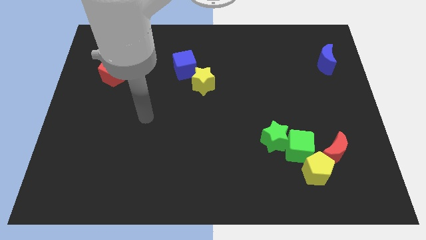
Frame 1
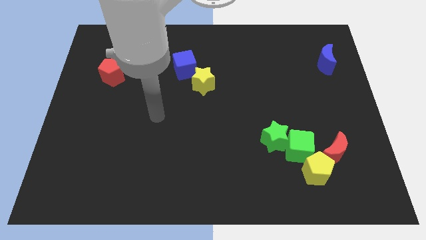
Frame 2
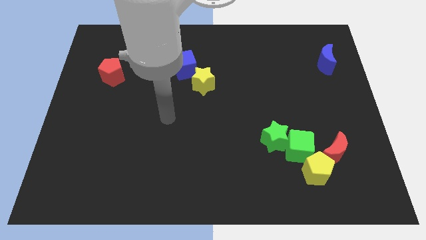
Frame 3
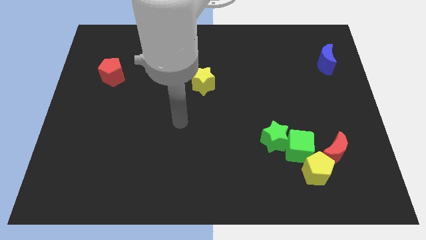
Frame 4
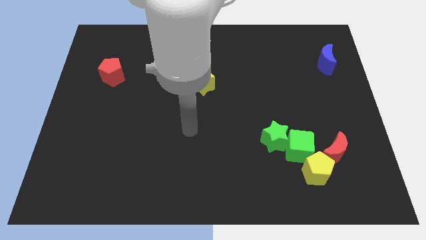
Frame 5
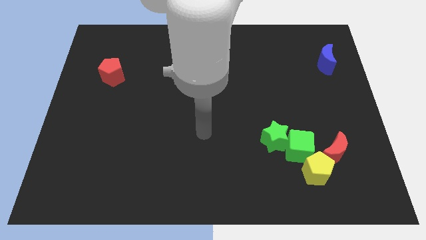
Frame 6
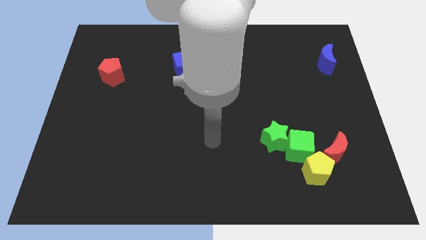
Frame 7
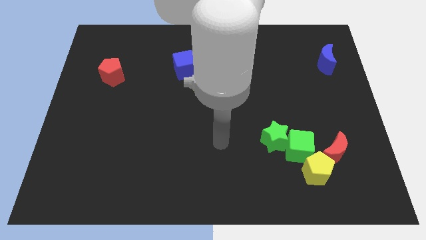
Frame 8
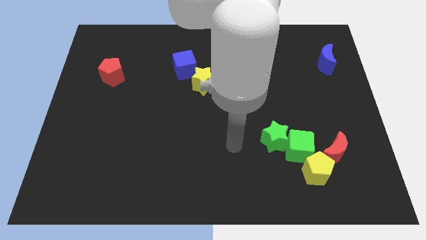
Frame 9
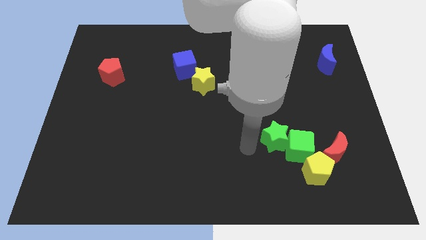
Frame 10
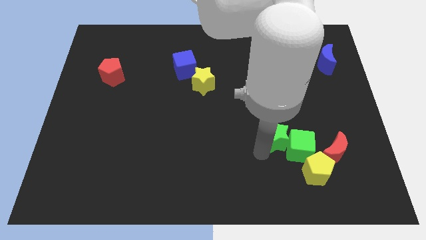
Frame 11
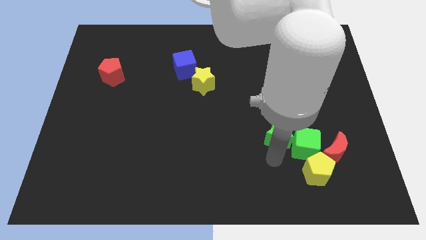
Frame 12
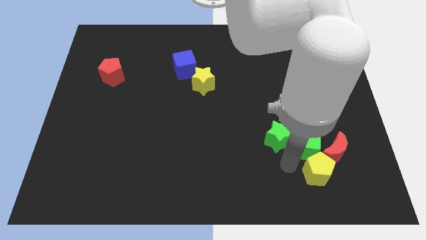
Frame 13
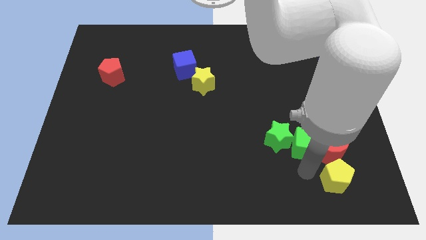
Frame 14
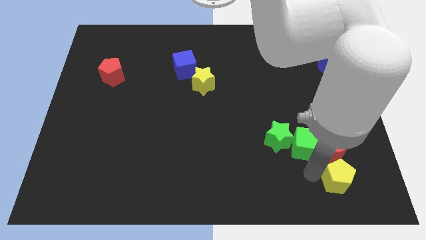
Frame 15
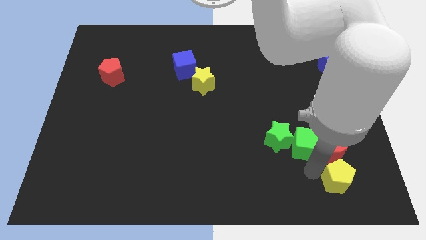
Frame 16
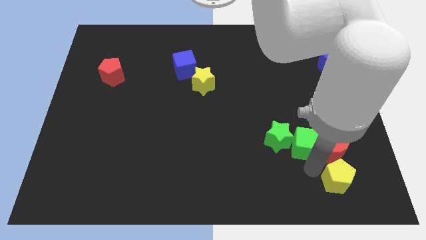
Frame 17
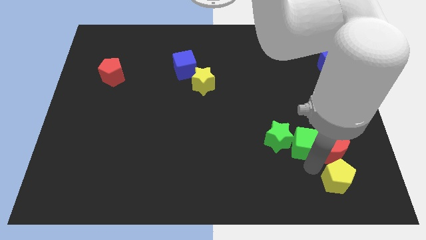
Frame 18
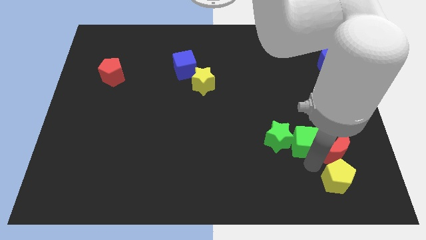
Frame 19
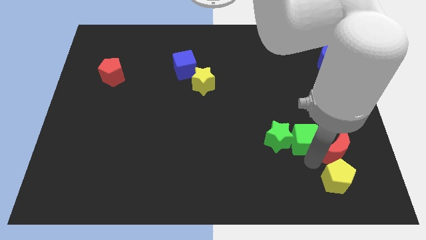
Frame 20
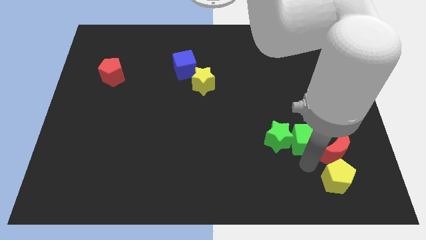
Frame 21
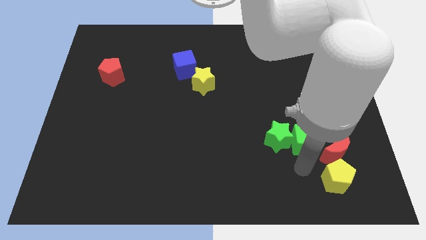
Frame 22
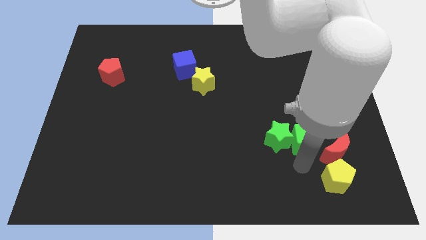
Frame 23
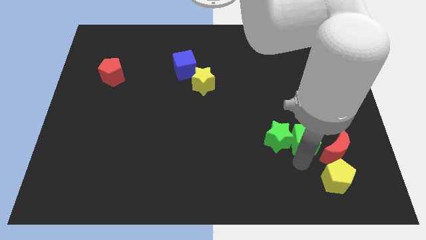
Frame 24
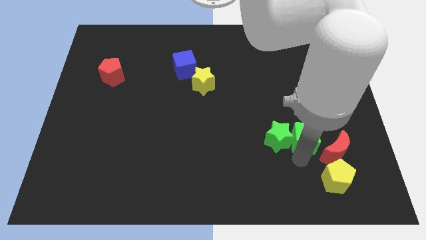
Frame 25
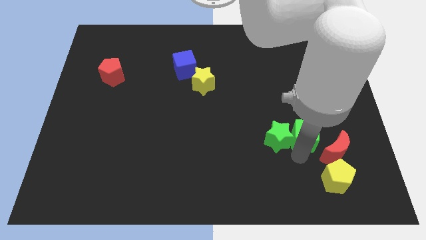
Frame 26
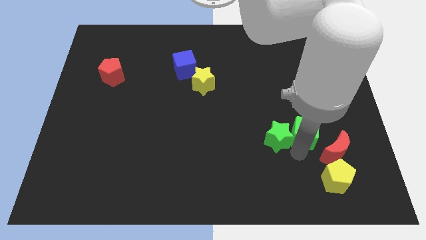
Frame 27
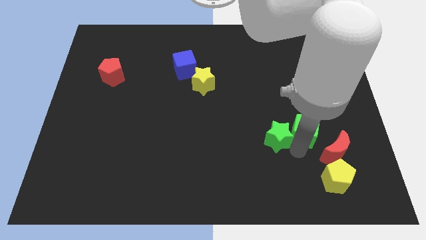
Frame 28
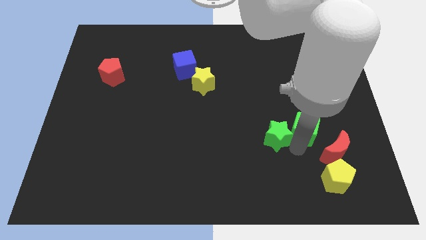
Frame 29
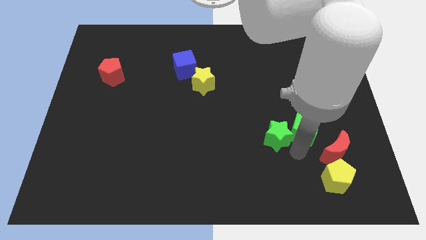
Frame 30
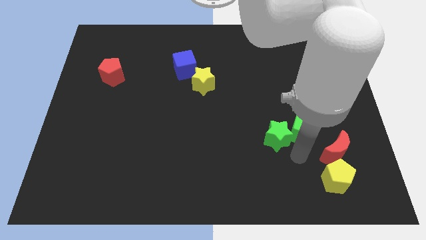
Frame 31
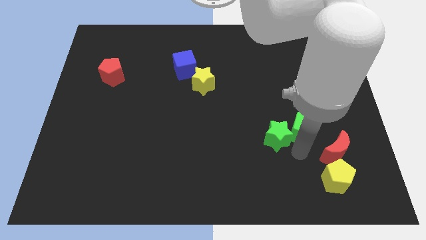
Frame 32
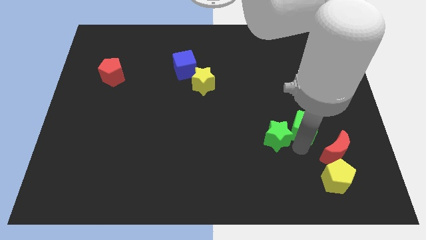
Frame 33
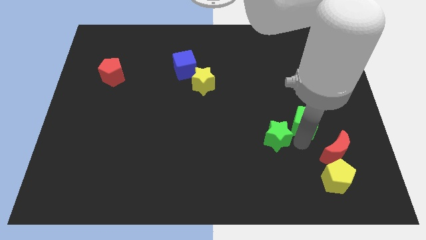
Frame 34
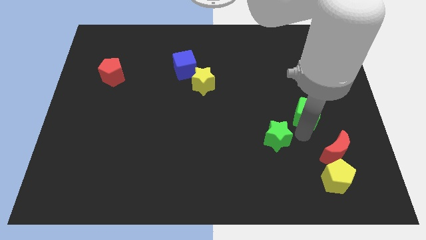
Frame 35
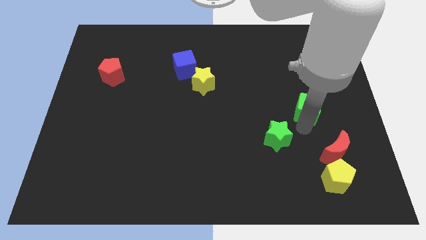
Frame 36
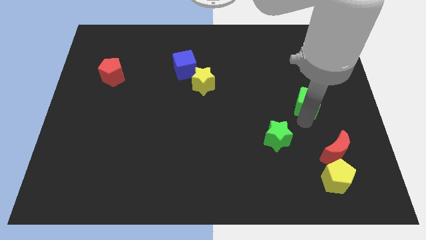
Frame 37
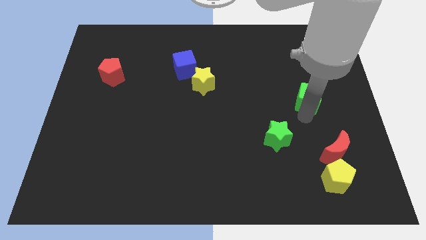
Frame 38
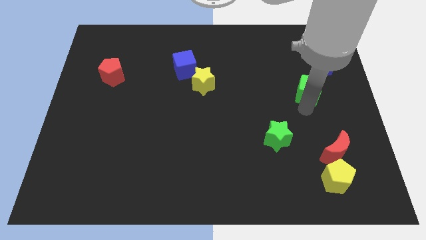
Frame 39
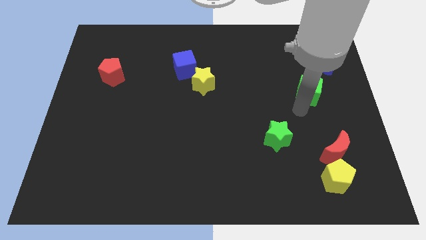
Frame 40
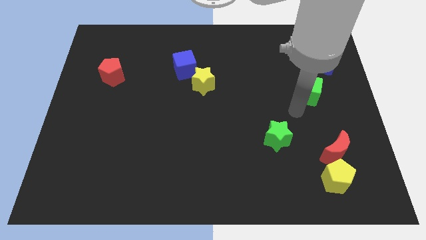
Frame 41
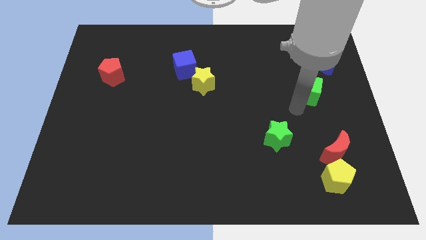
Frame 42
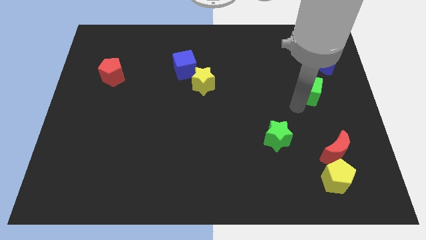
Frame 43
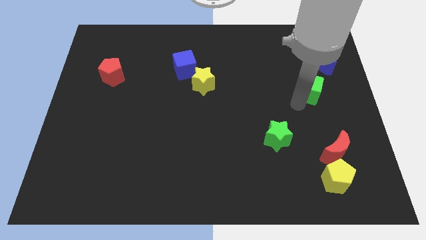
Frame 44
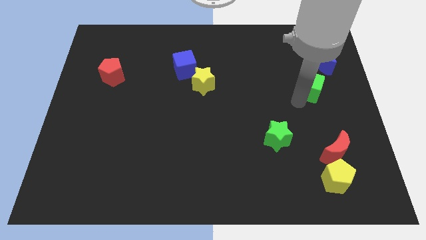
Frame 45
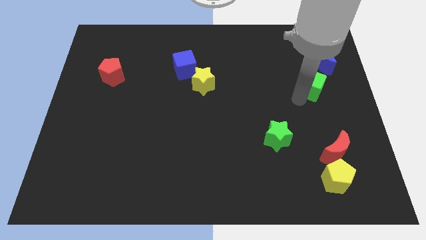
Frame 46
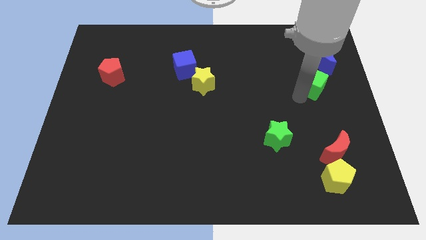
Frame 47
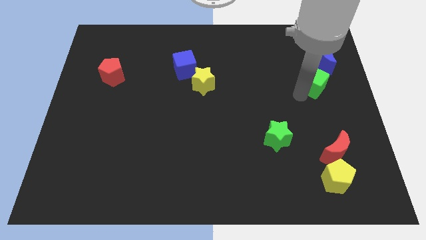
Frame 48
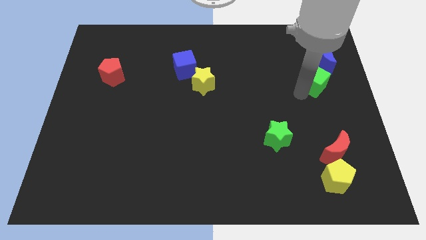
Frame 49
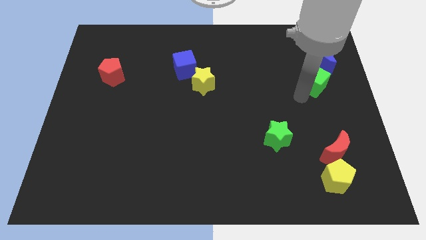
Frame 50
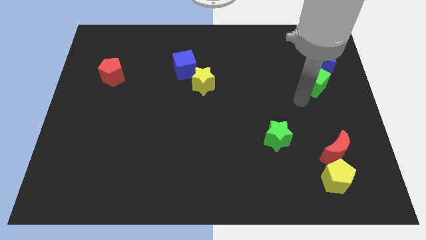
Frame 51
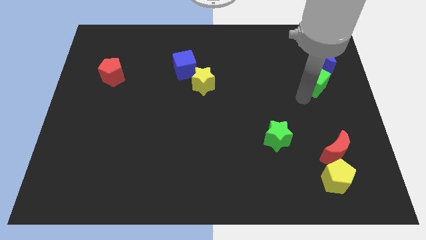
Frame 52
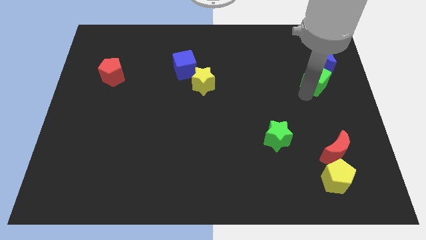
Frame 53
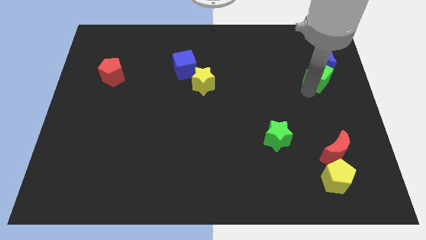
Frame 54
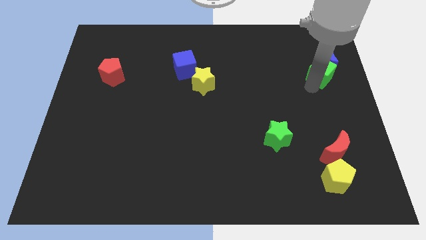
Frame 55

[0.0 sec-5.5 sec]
push the green cube towards the blue moon
